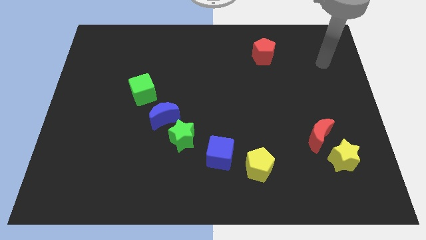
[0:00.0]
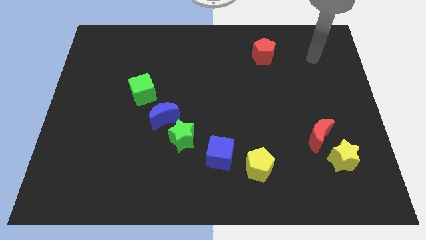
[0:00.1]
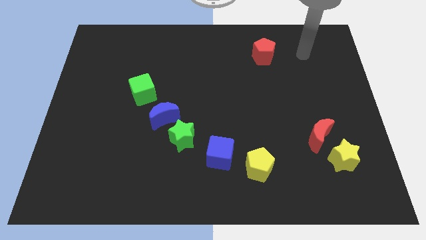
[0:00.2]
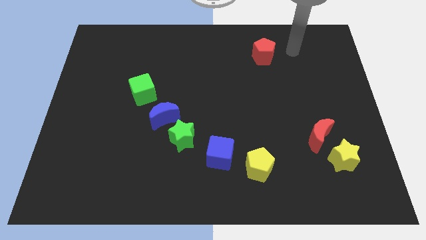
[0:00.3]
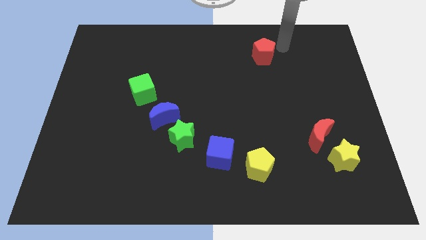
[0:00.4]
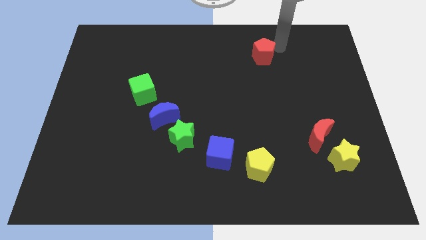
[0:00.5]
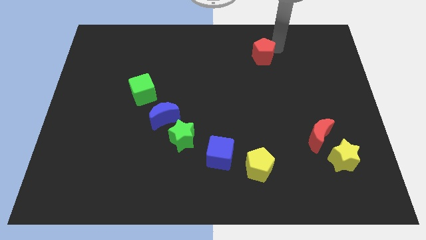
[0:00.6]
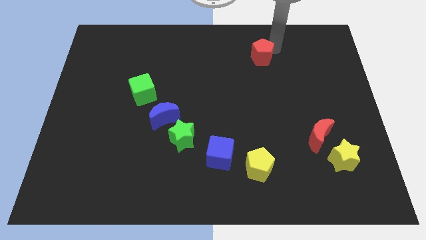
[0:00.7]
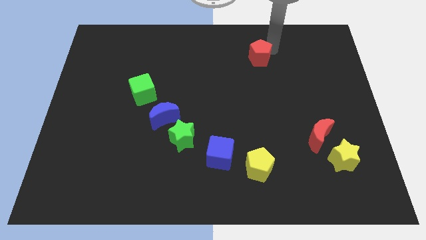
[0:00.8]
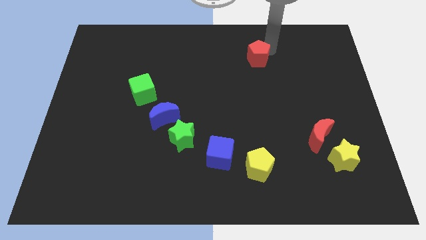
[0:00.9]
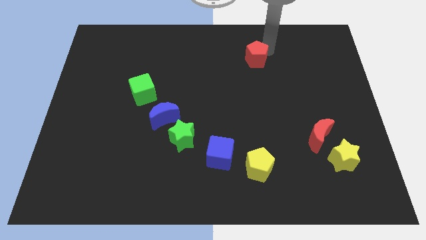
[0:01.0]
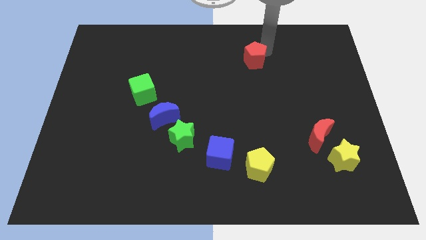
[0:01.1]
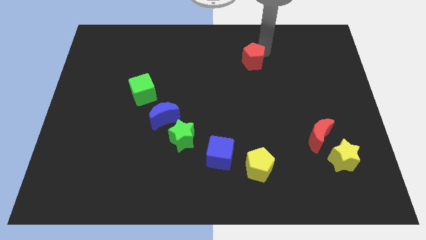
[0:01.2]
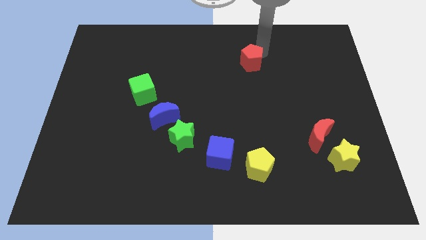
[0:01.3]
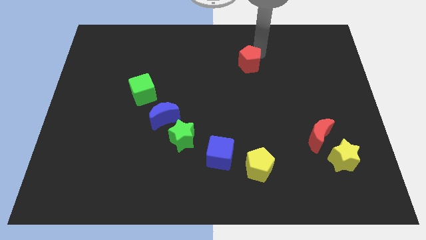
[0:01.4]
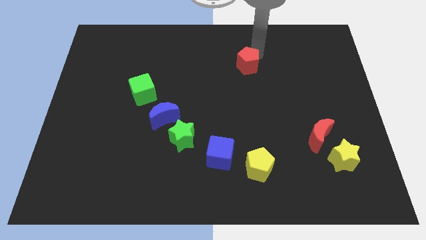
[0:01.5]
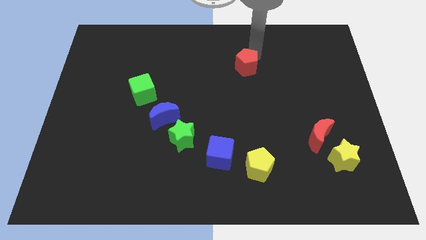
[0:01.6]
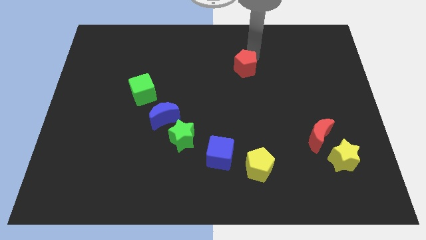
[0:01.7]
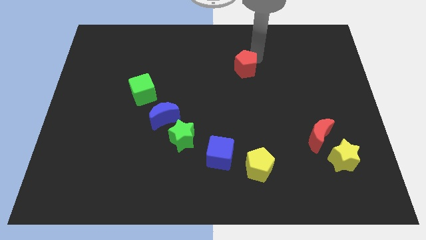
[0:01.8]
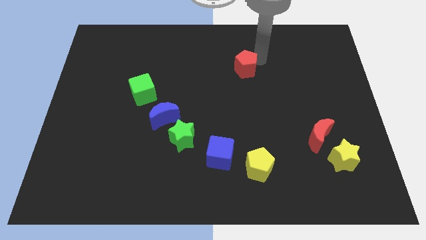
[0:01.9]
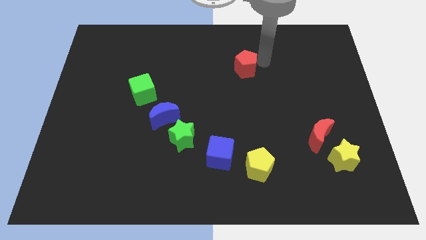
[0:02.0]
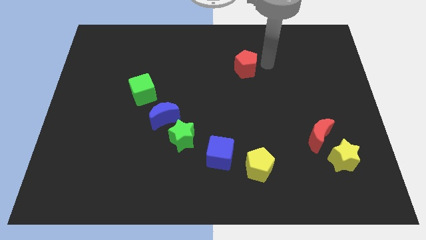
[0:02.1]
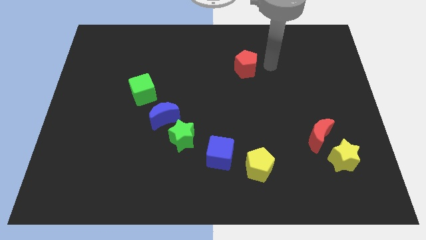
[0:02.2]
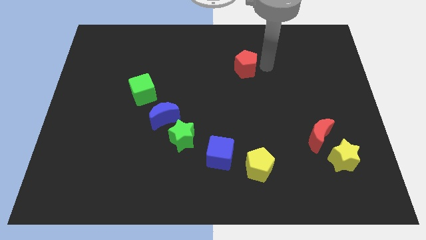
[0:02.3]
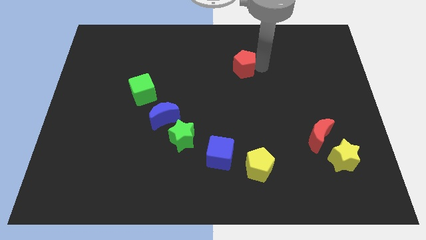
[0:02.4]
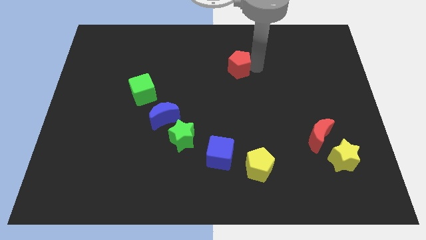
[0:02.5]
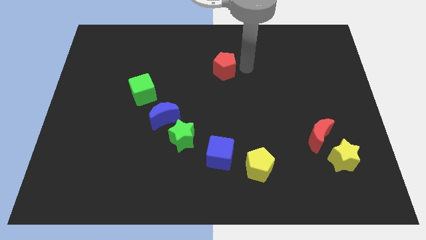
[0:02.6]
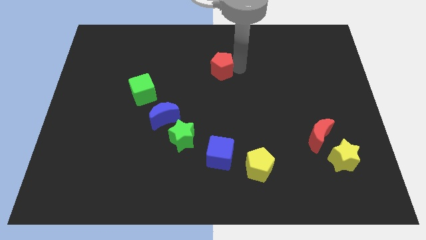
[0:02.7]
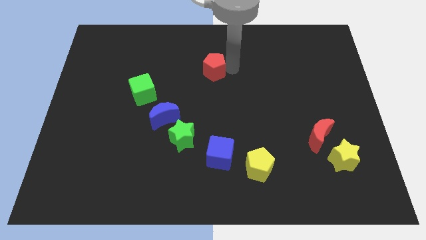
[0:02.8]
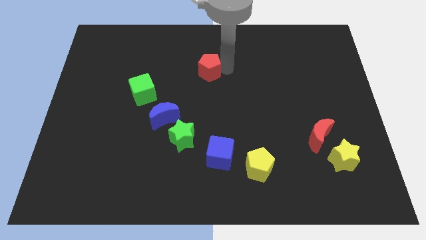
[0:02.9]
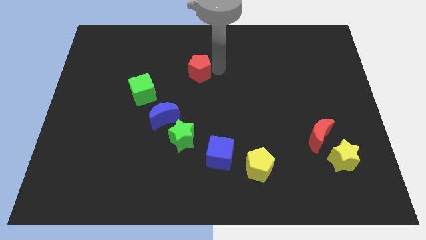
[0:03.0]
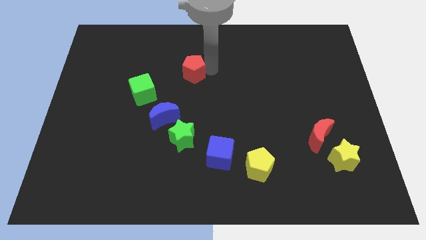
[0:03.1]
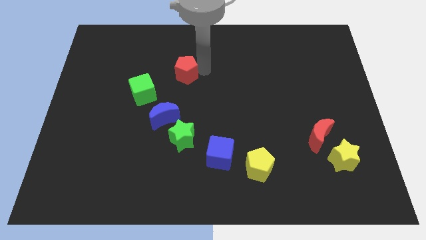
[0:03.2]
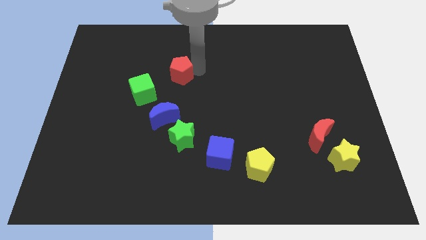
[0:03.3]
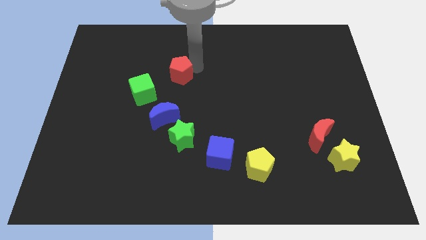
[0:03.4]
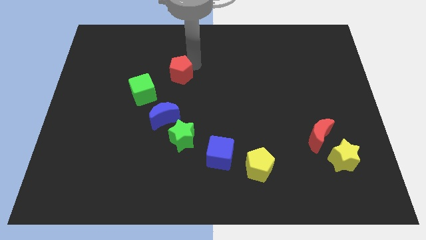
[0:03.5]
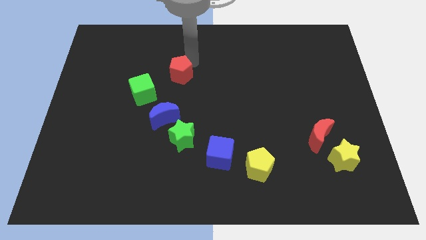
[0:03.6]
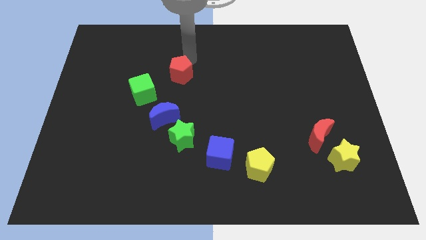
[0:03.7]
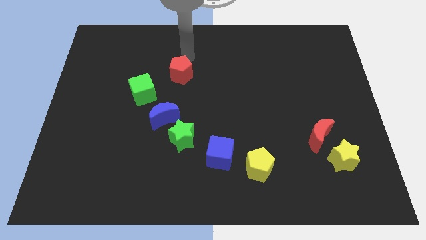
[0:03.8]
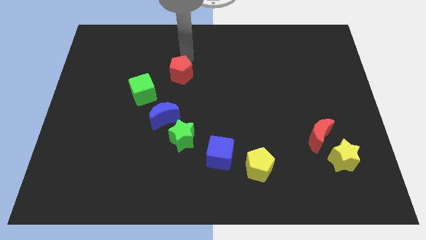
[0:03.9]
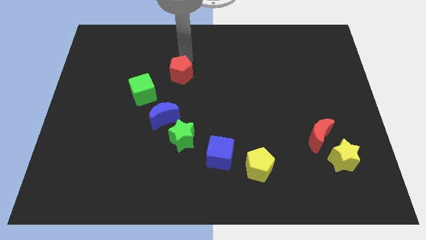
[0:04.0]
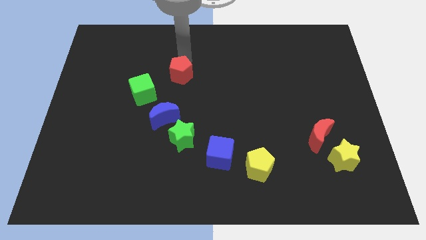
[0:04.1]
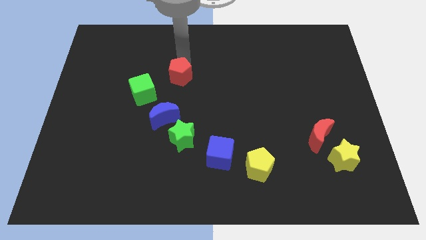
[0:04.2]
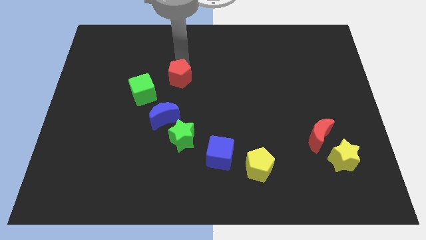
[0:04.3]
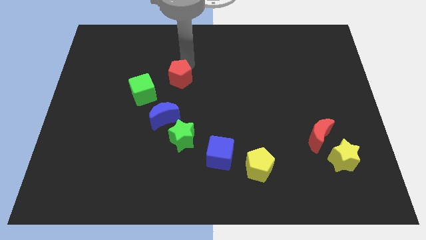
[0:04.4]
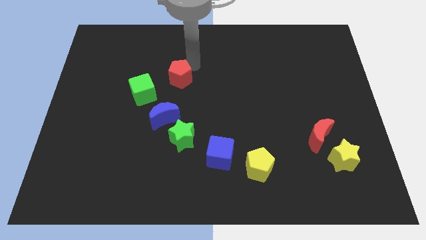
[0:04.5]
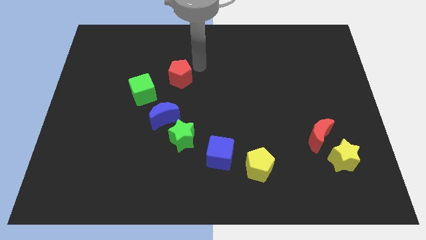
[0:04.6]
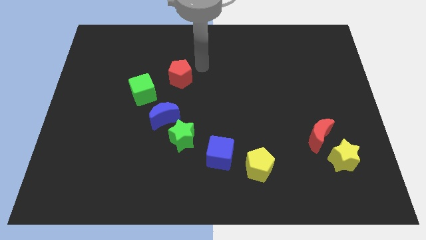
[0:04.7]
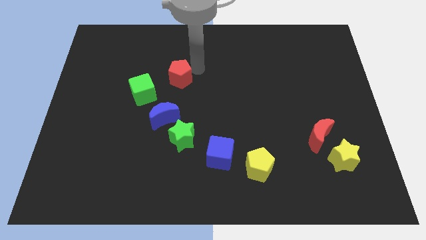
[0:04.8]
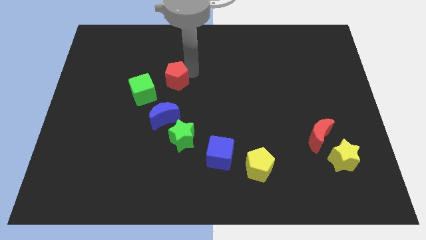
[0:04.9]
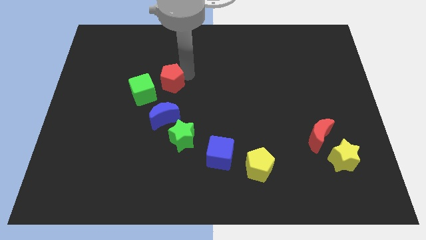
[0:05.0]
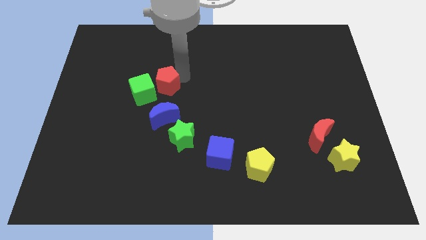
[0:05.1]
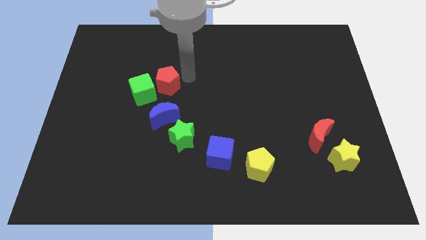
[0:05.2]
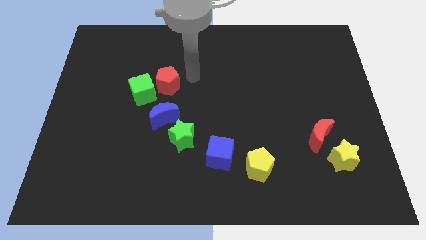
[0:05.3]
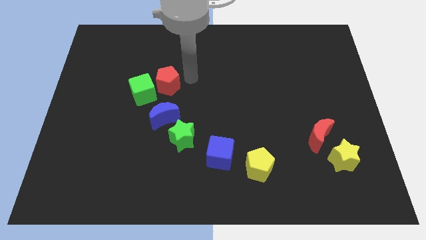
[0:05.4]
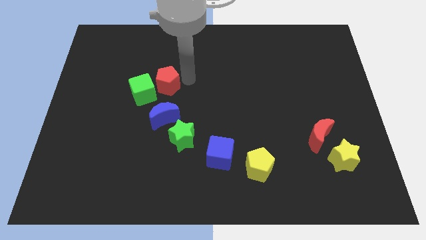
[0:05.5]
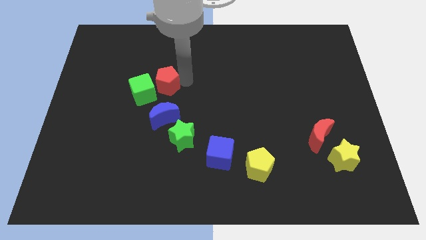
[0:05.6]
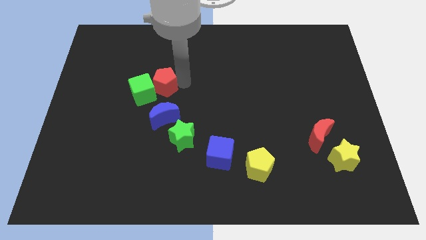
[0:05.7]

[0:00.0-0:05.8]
move the red pentagon to the green cube

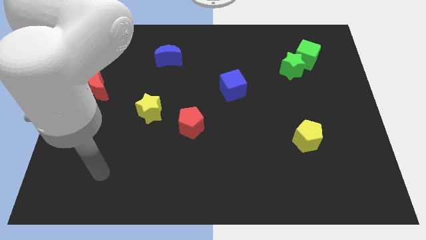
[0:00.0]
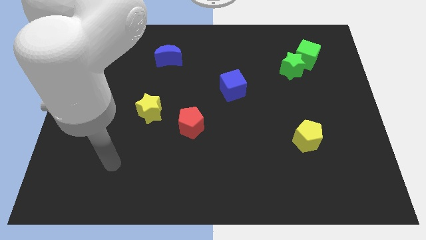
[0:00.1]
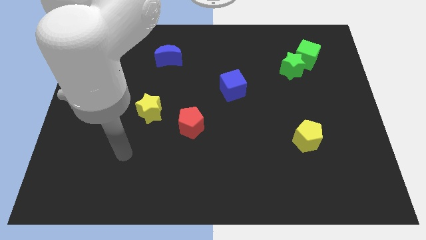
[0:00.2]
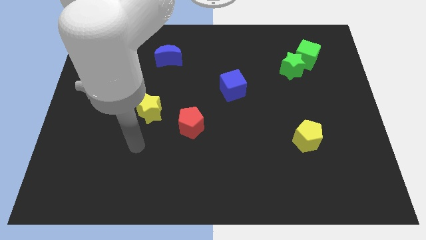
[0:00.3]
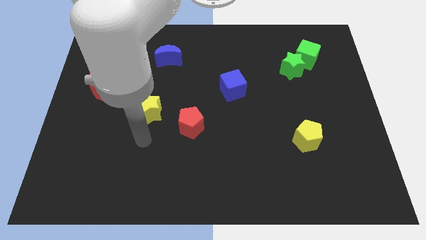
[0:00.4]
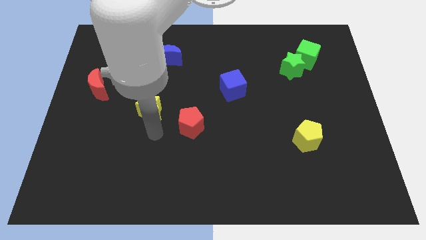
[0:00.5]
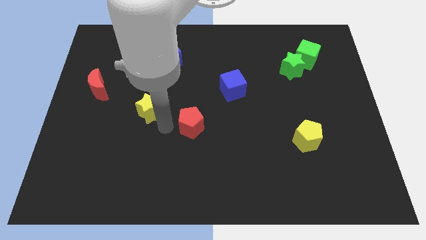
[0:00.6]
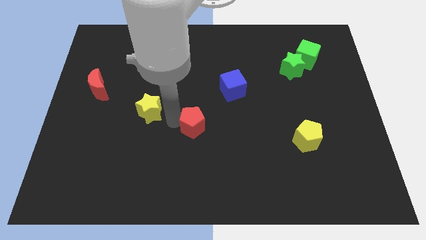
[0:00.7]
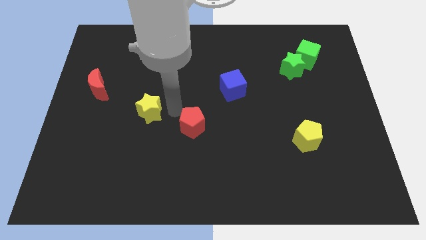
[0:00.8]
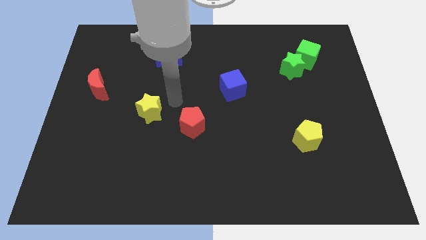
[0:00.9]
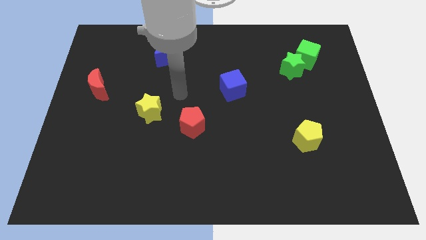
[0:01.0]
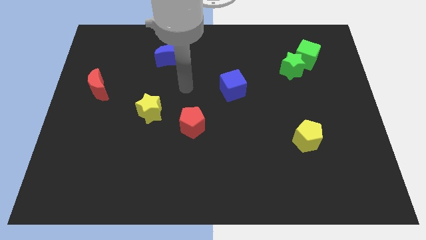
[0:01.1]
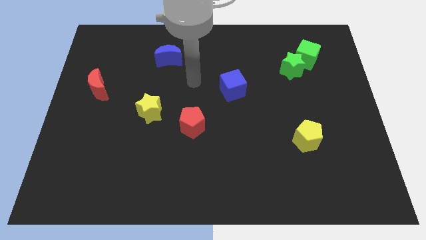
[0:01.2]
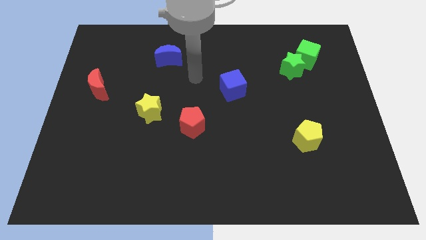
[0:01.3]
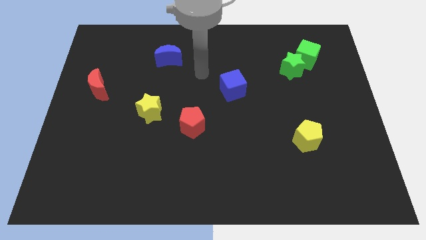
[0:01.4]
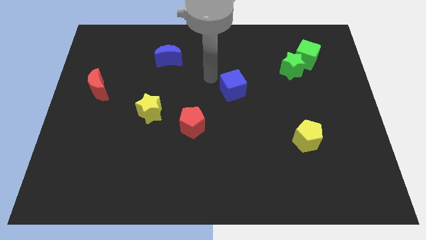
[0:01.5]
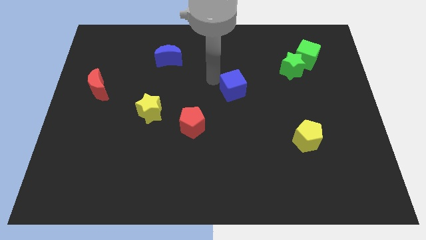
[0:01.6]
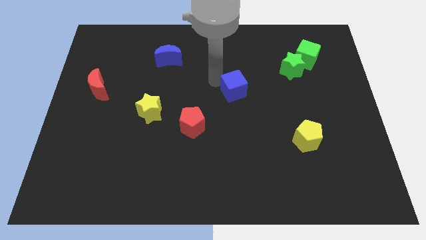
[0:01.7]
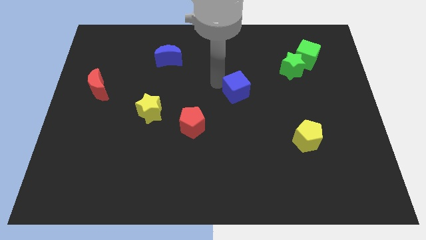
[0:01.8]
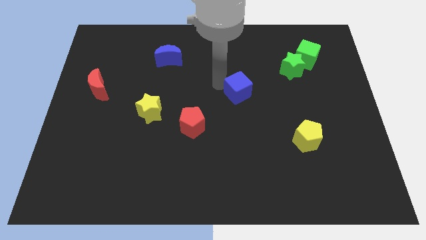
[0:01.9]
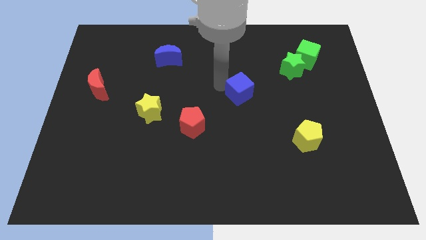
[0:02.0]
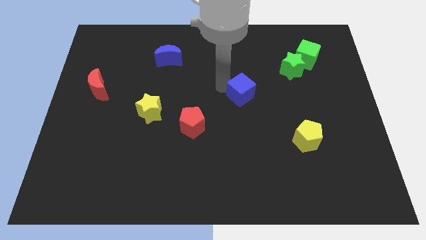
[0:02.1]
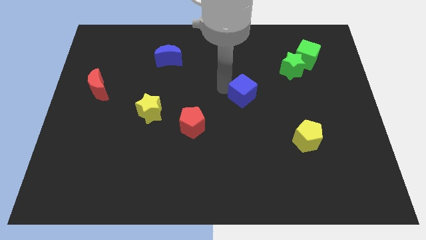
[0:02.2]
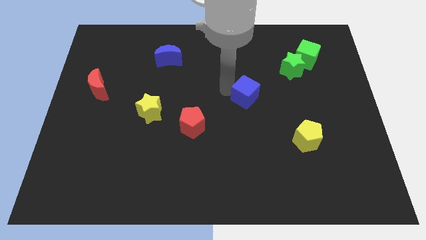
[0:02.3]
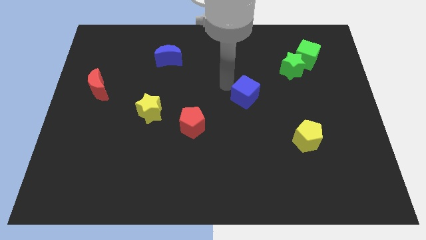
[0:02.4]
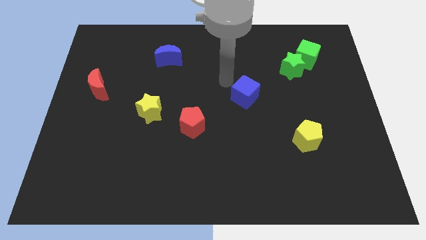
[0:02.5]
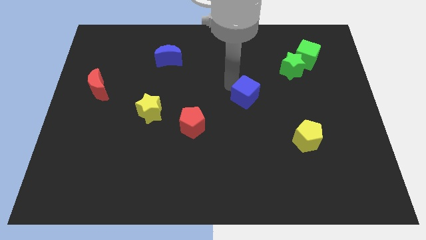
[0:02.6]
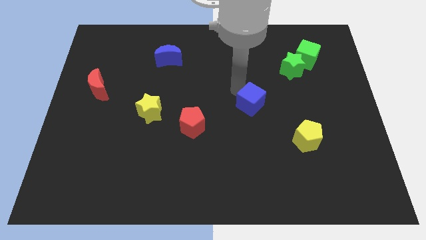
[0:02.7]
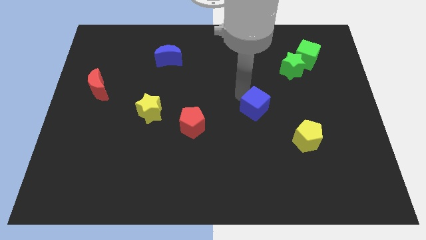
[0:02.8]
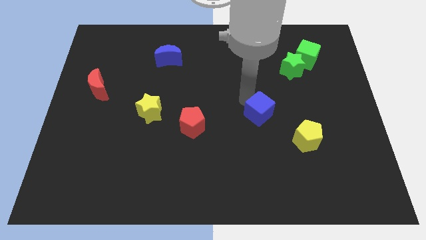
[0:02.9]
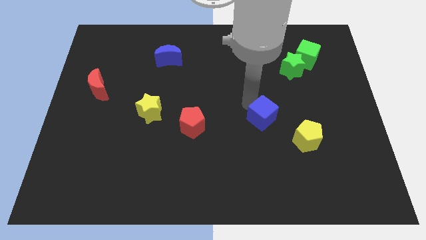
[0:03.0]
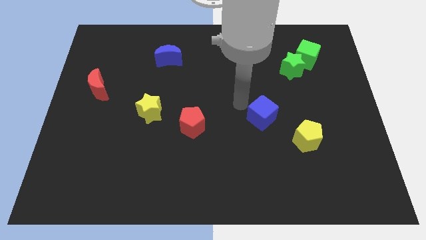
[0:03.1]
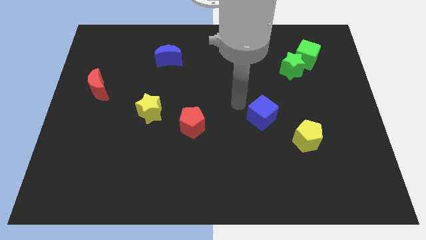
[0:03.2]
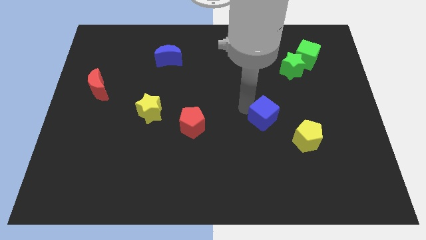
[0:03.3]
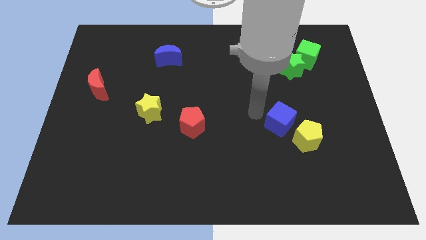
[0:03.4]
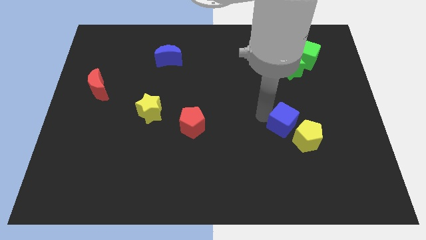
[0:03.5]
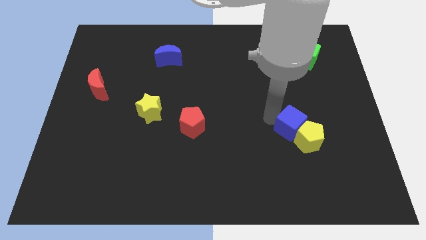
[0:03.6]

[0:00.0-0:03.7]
put the blue cube close to the yellow pentagon
